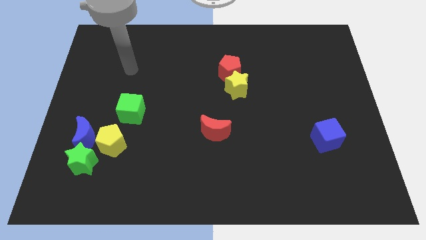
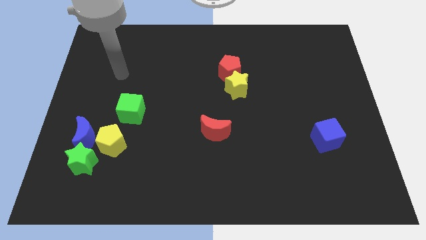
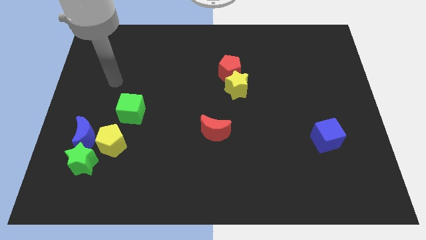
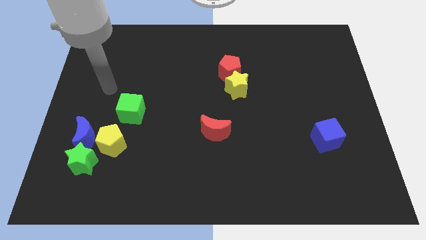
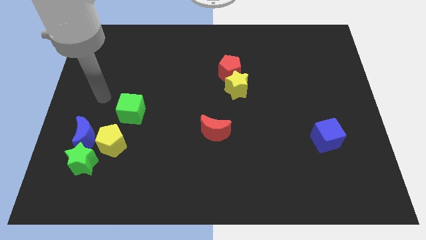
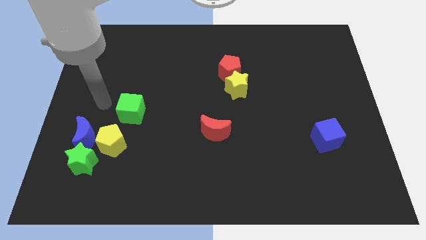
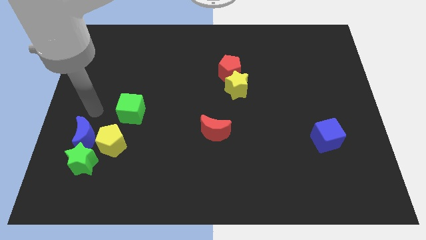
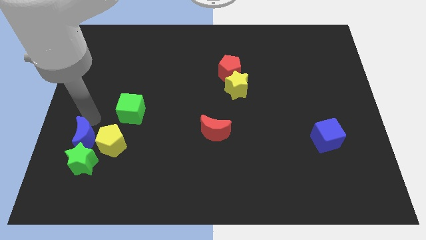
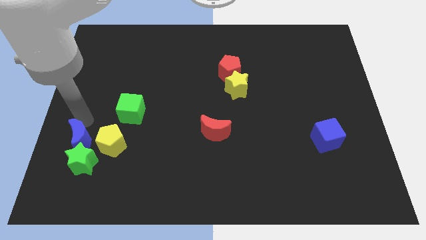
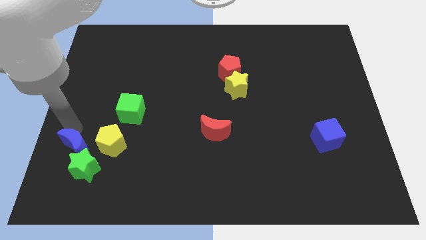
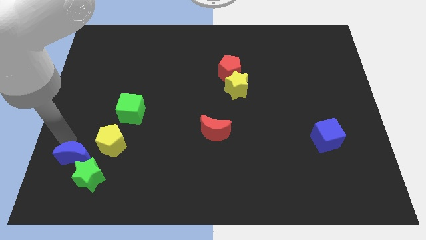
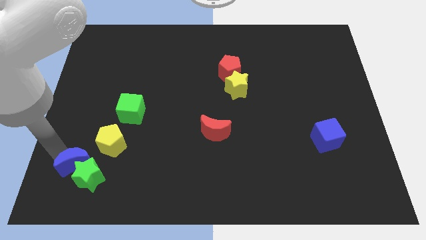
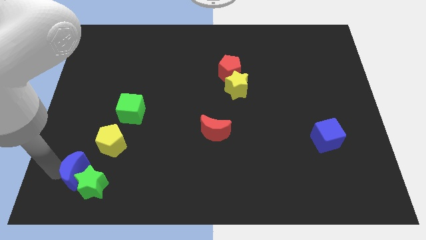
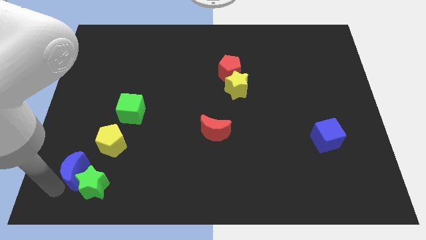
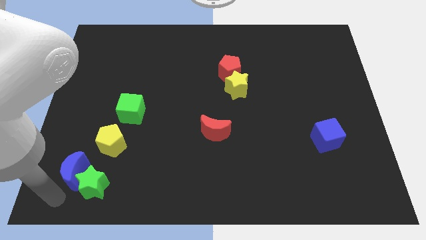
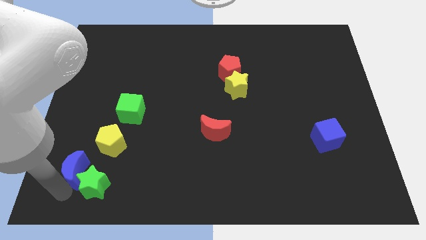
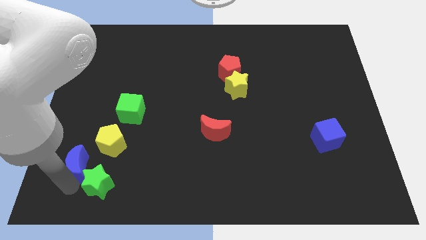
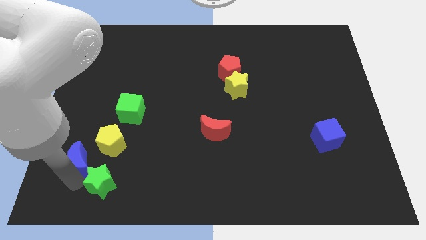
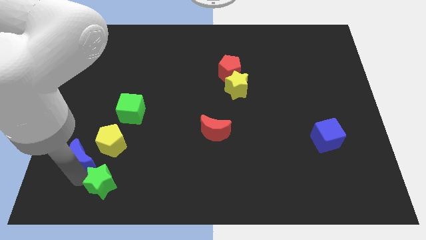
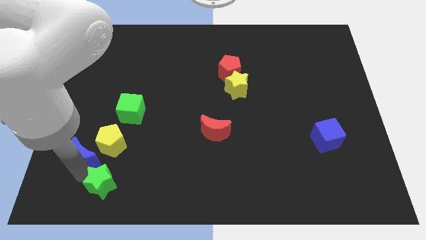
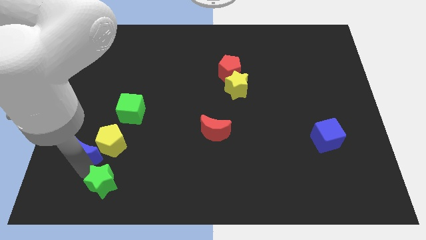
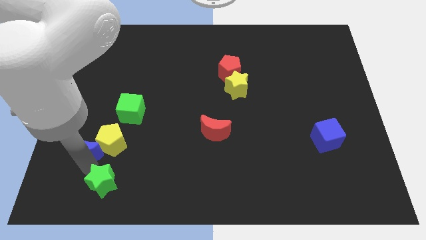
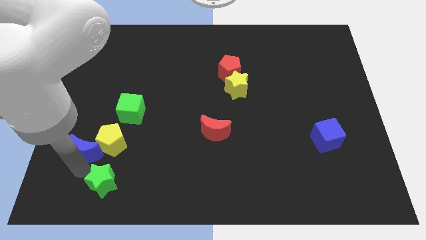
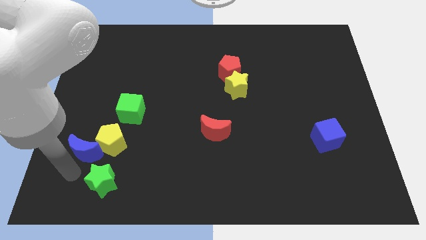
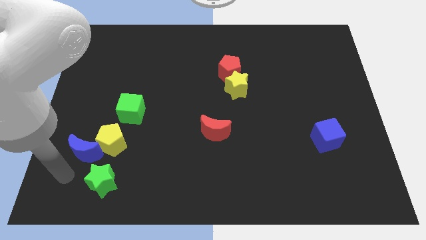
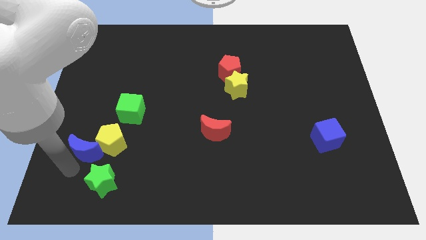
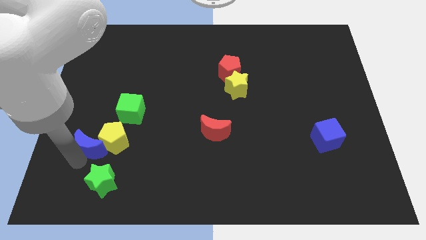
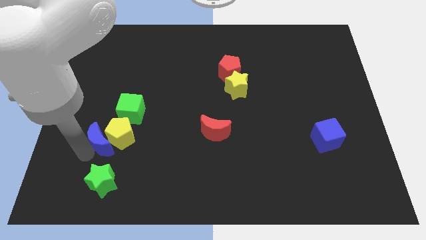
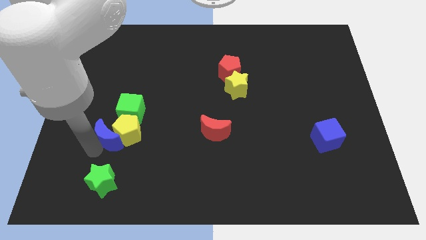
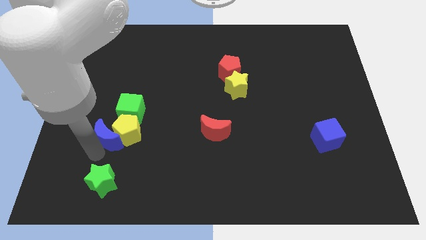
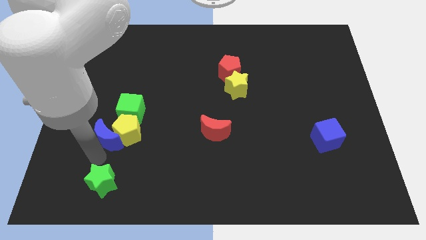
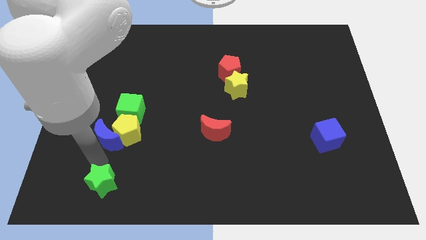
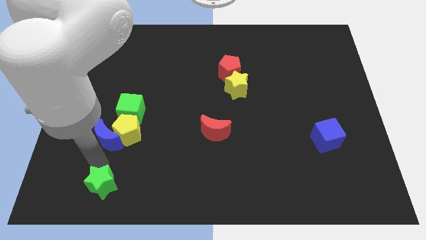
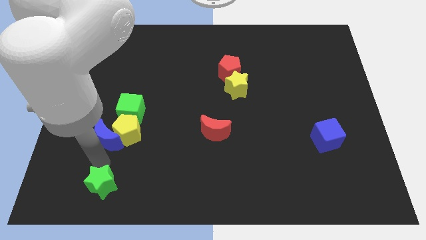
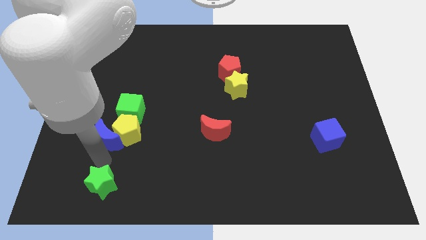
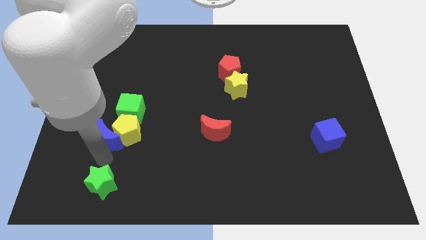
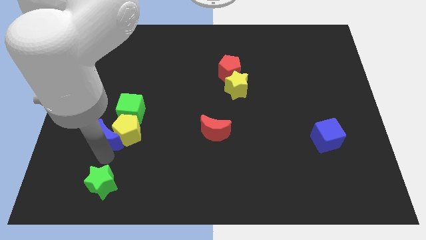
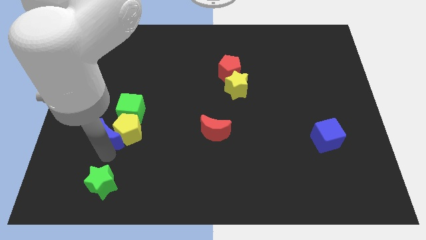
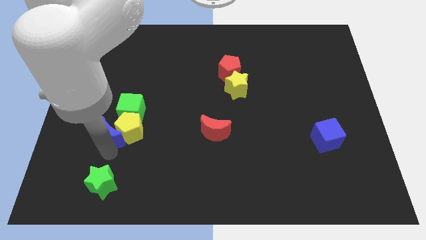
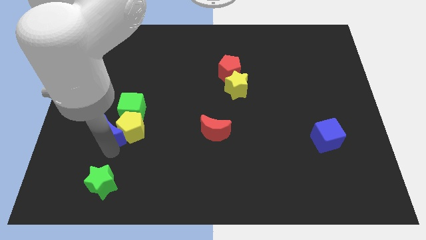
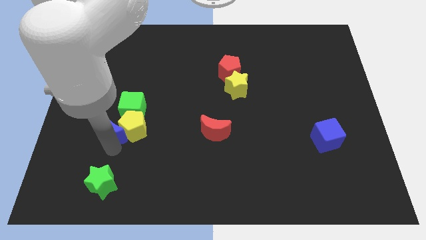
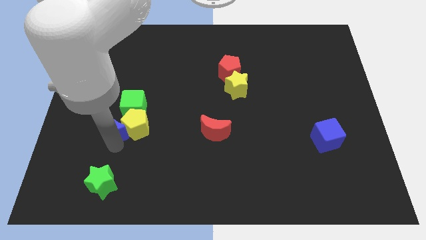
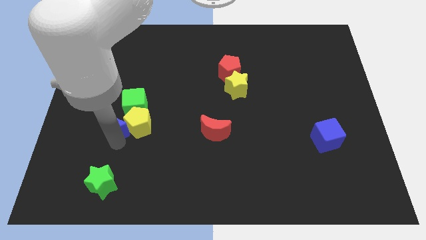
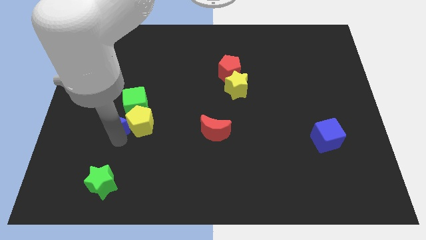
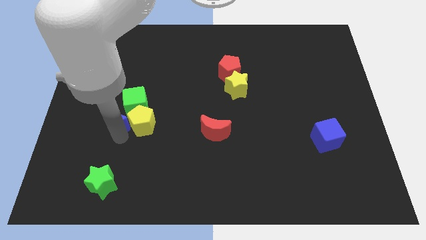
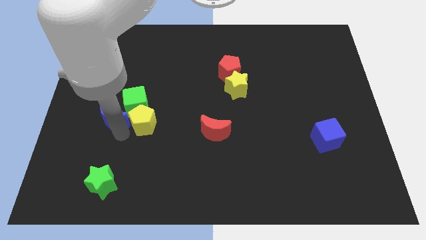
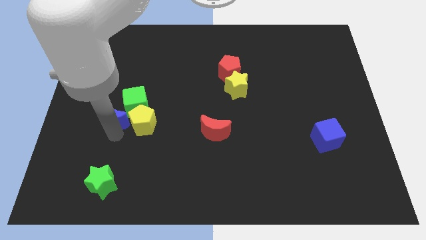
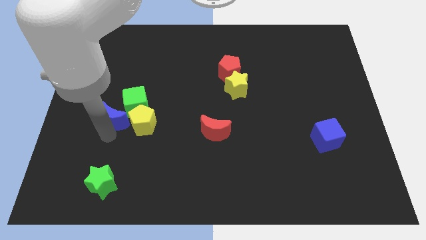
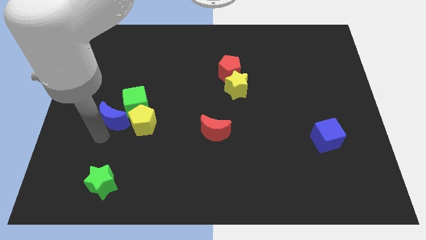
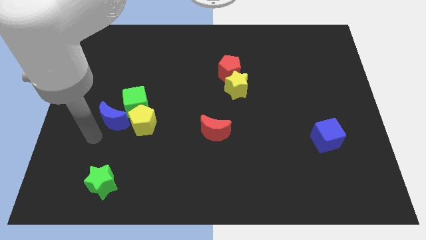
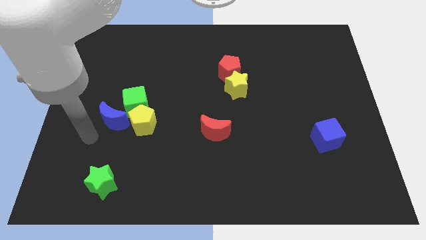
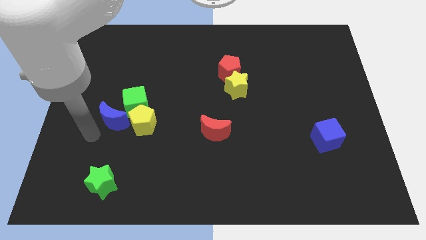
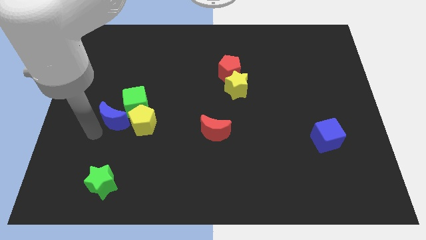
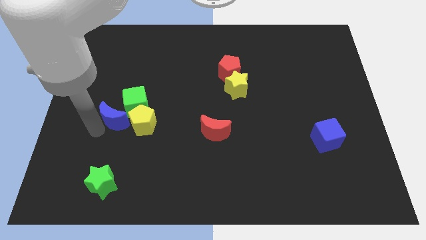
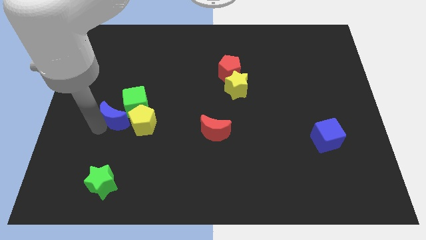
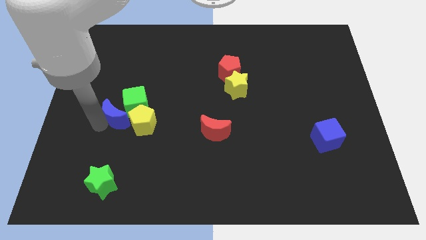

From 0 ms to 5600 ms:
put the blue moon close to the green cube

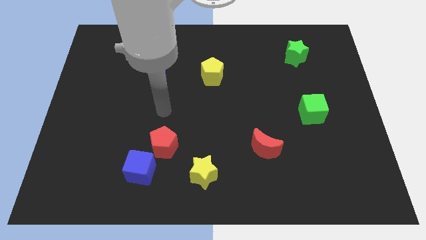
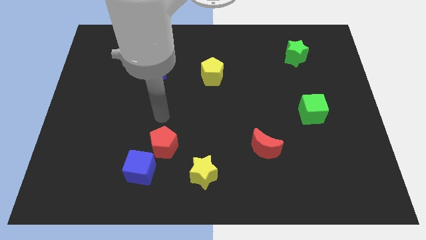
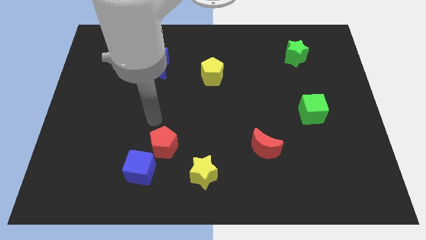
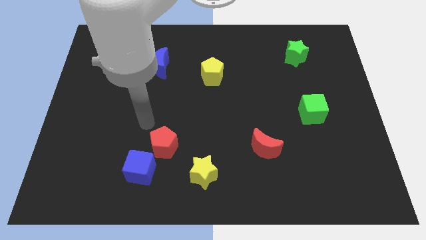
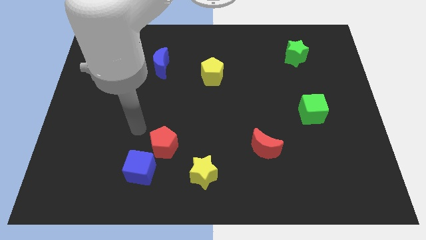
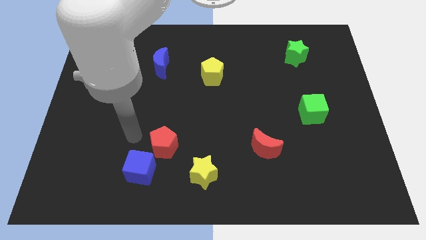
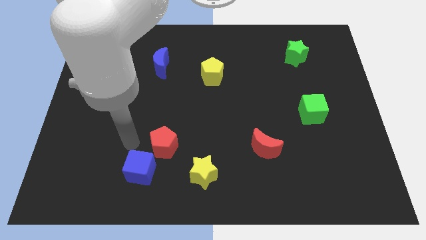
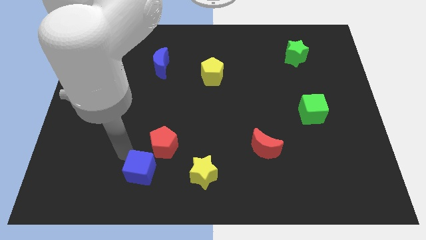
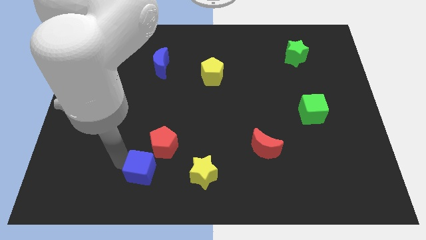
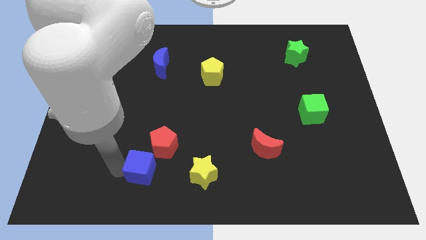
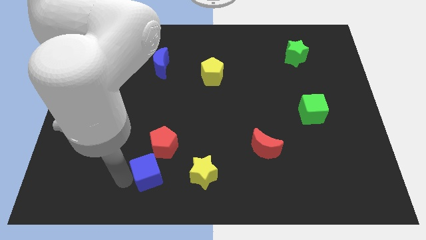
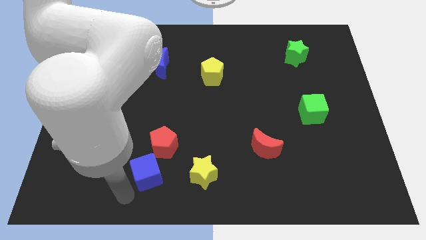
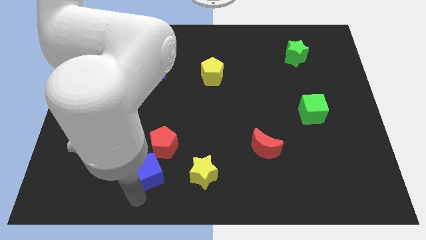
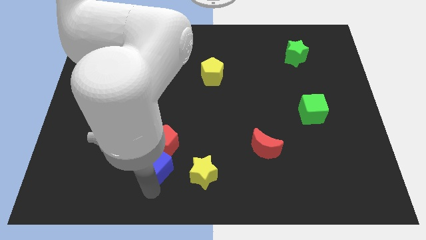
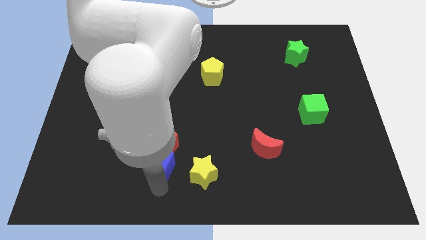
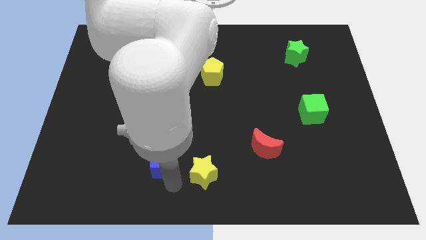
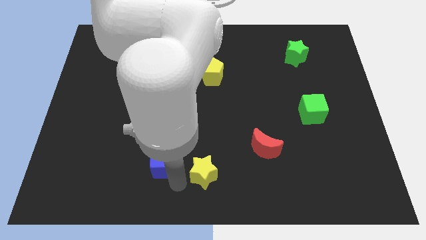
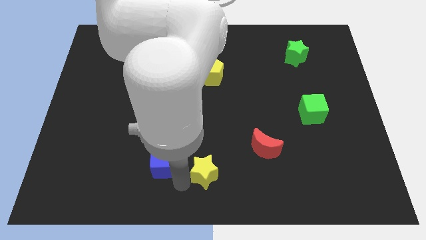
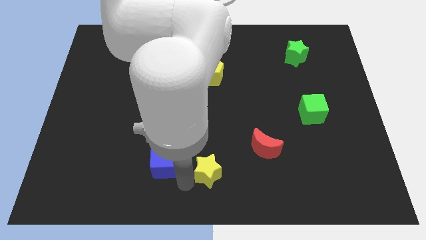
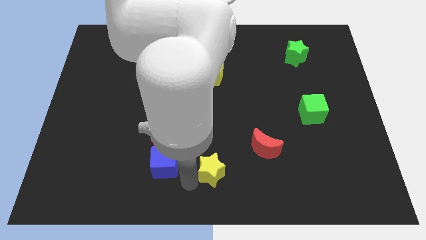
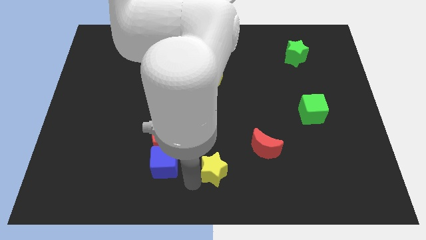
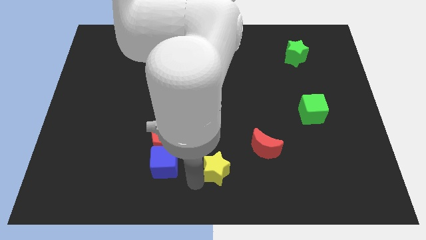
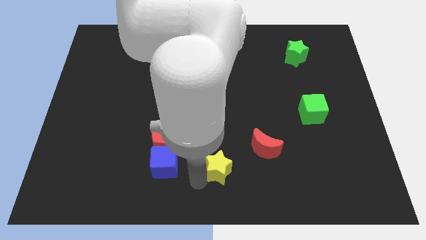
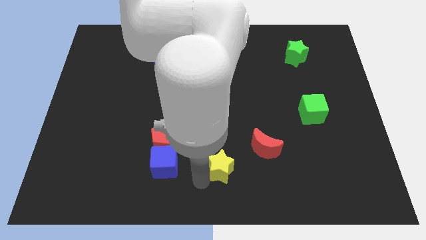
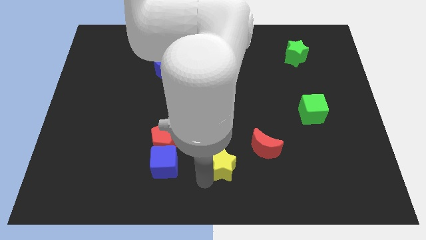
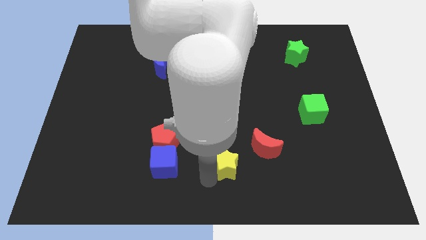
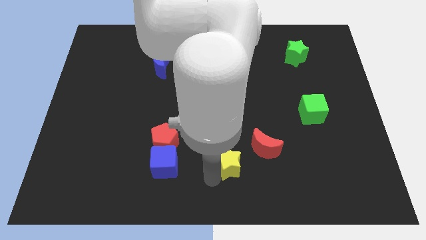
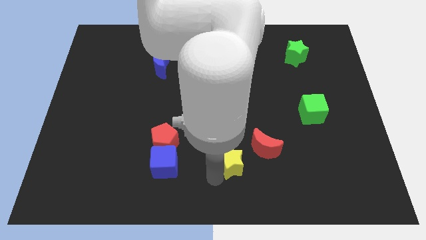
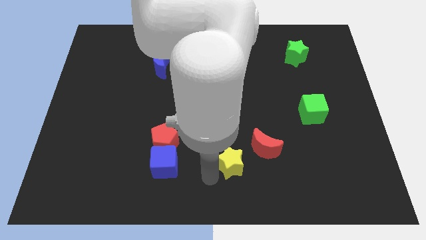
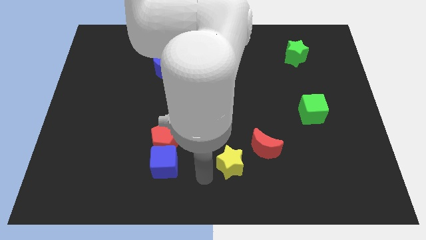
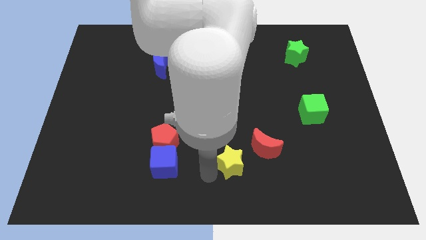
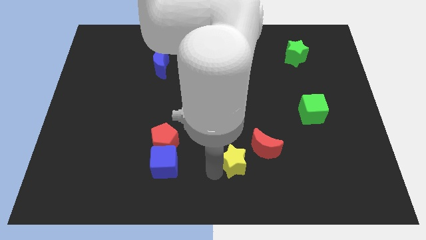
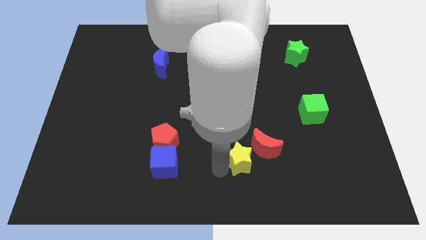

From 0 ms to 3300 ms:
move the yellow star towards the red moon
